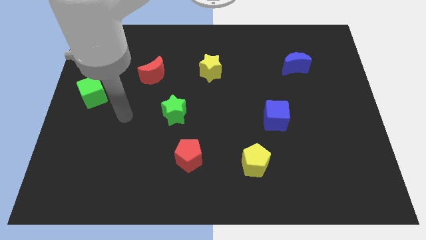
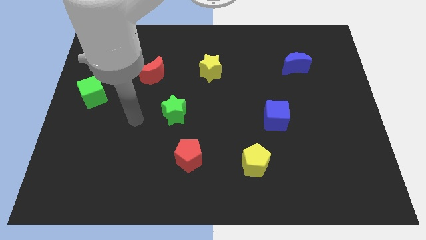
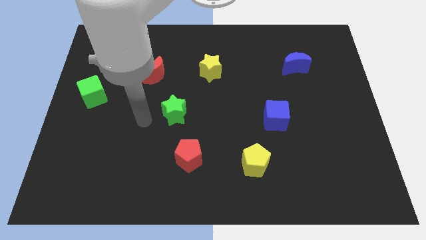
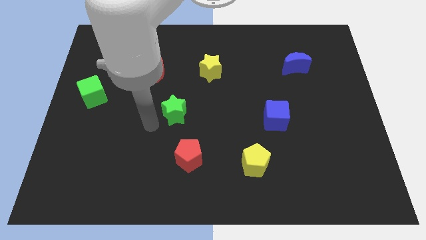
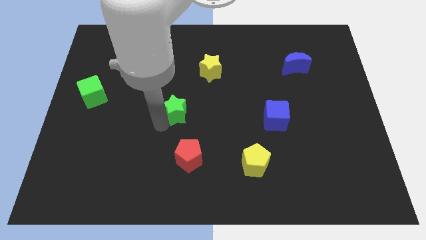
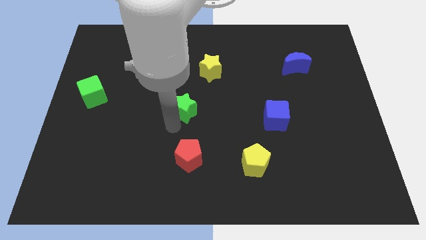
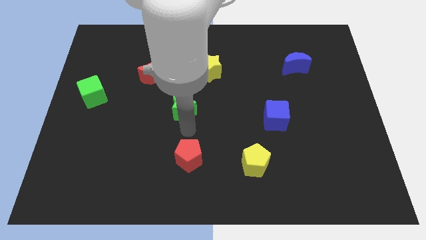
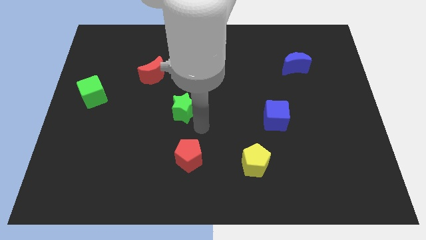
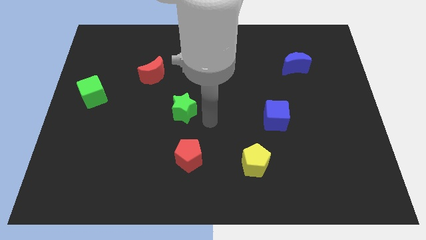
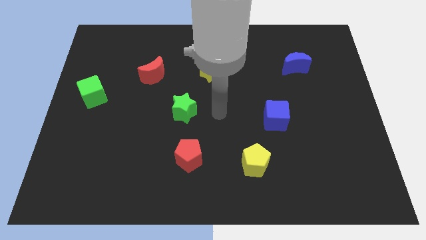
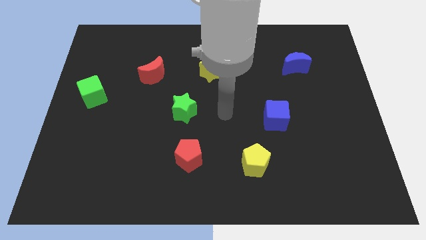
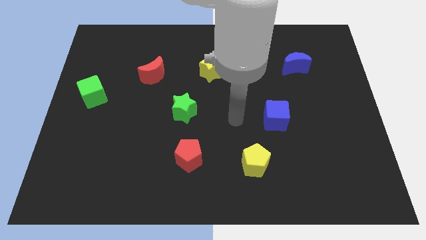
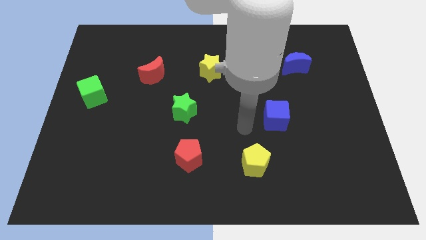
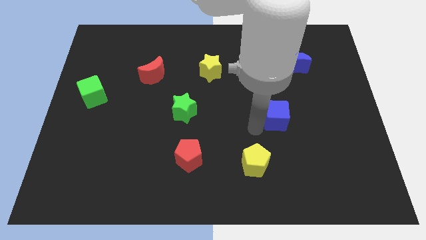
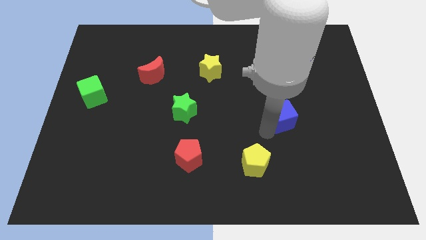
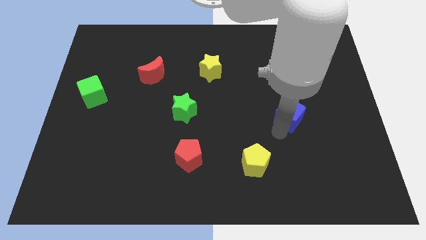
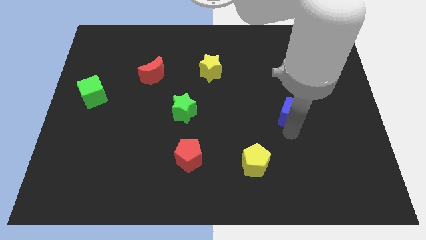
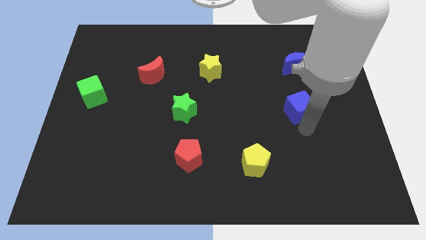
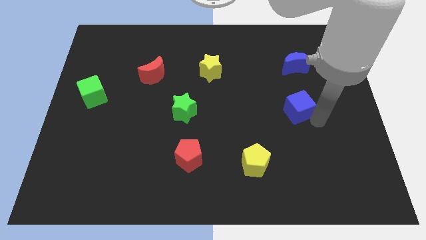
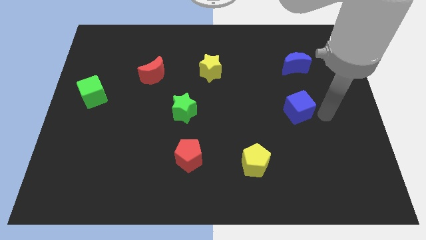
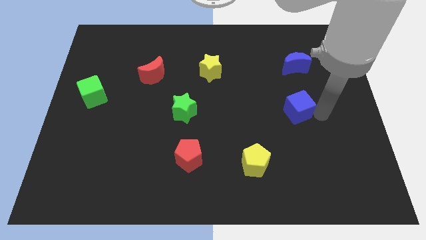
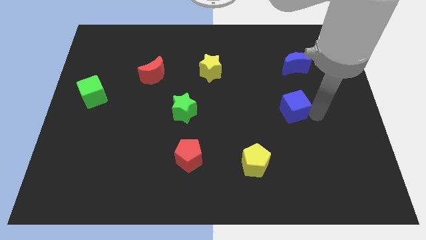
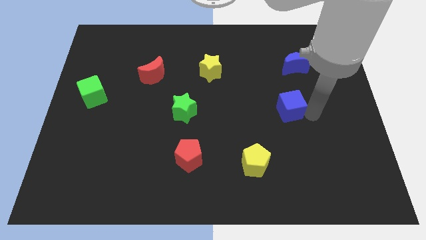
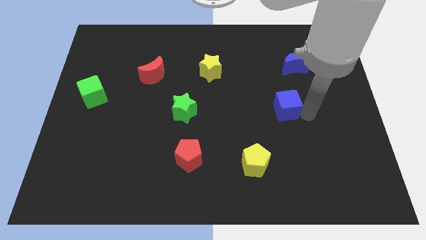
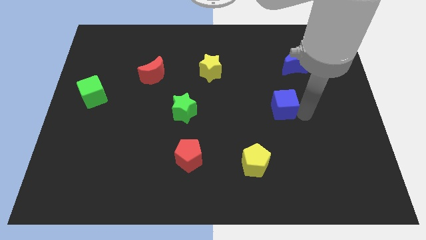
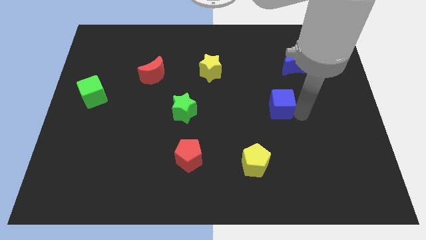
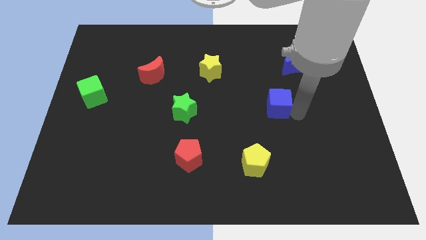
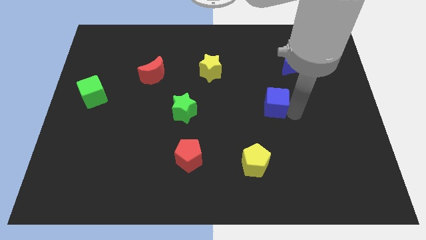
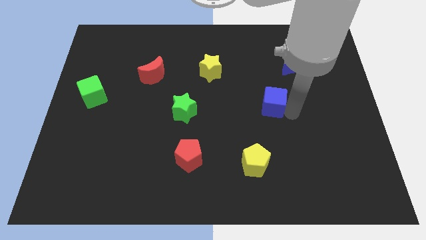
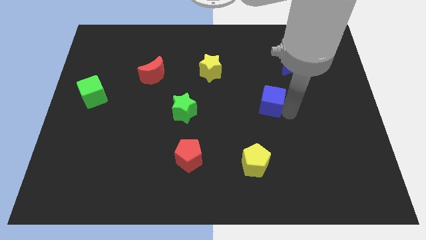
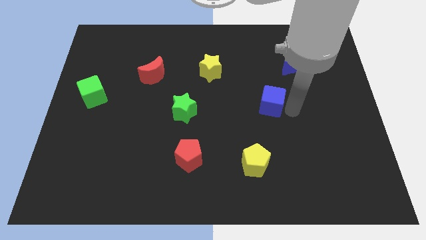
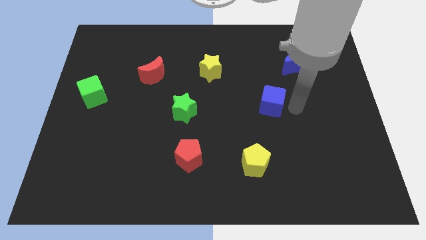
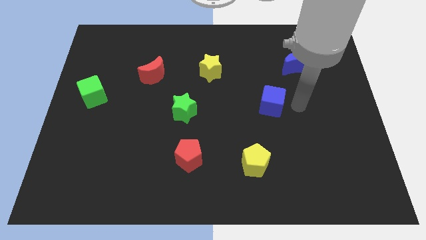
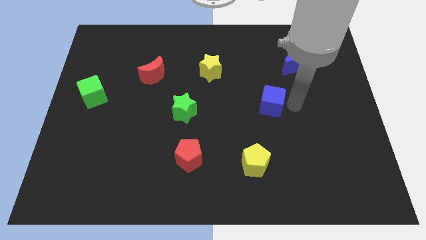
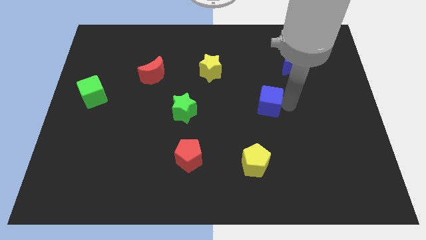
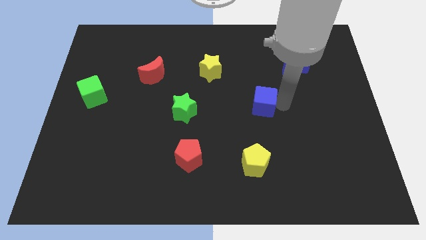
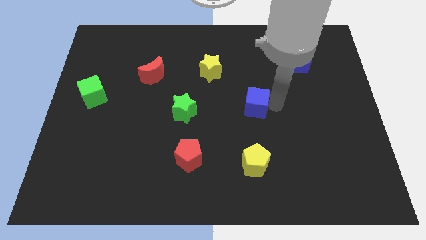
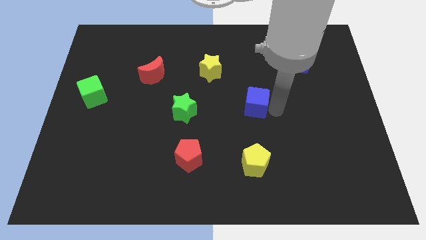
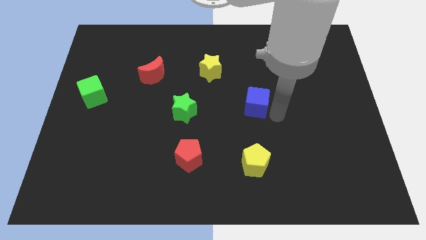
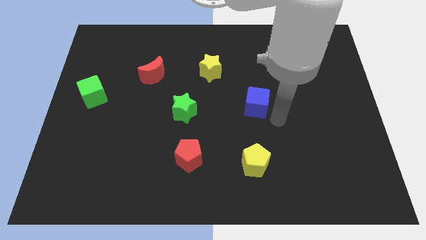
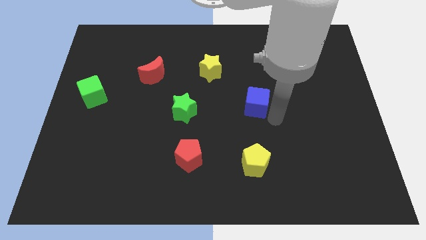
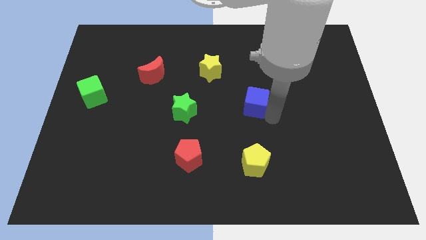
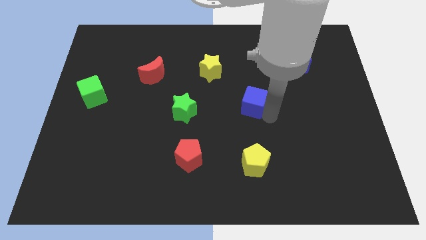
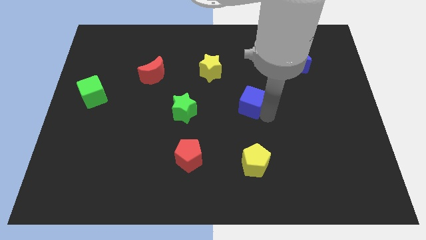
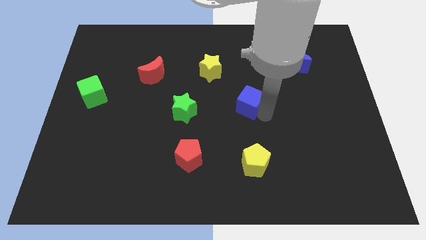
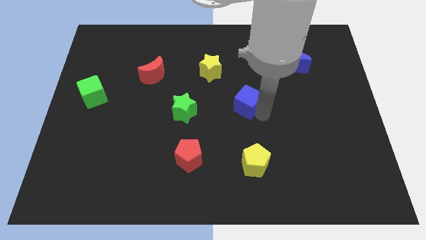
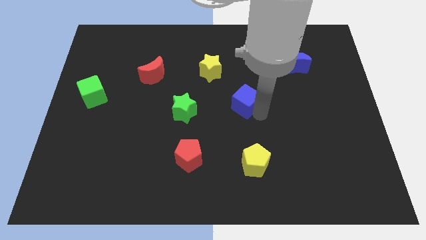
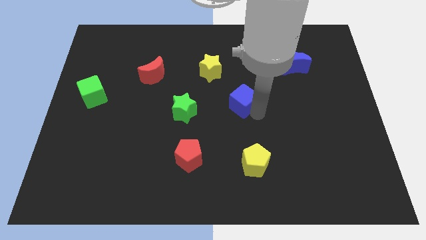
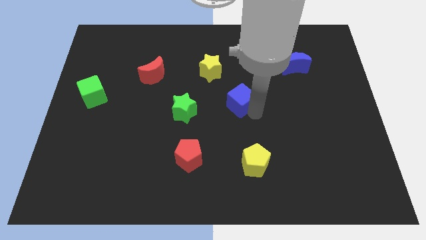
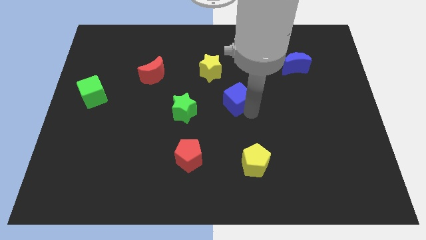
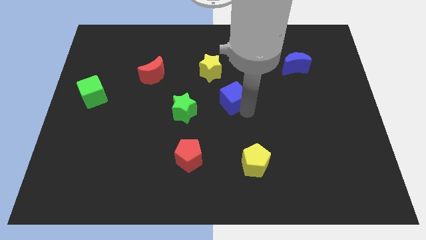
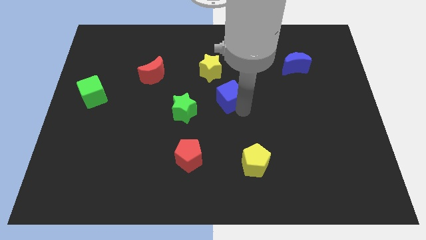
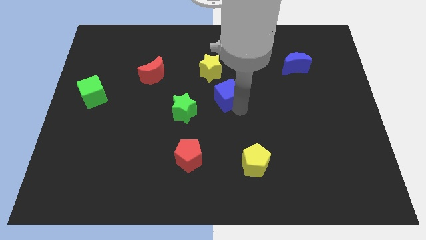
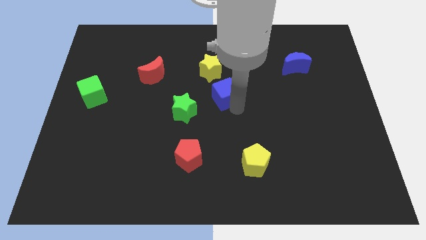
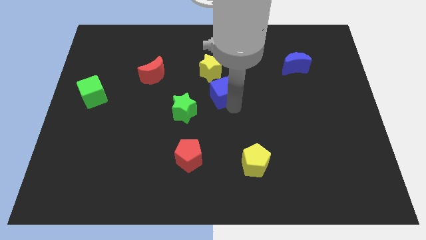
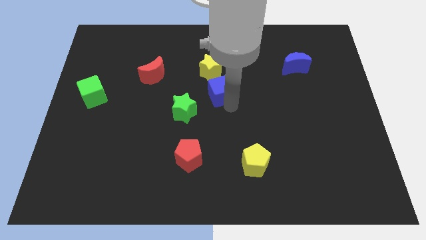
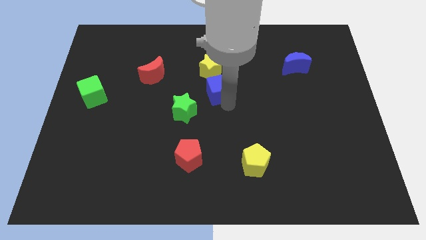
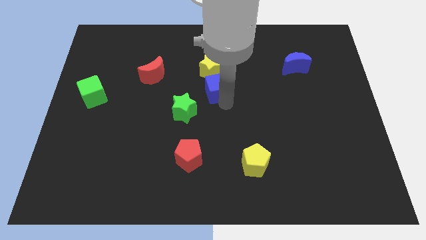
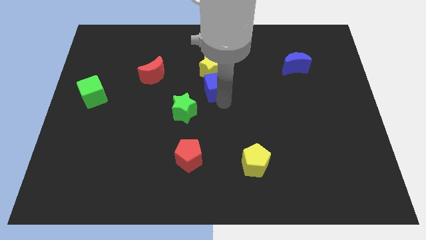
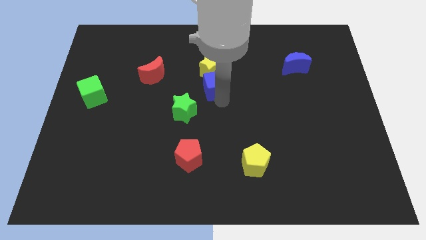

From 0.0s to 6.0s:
put the blue cube close to the yellow star
